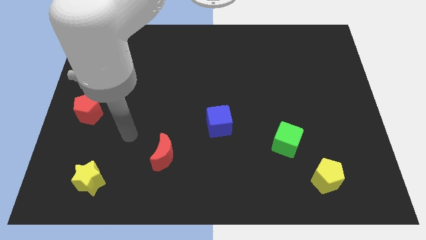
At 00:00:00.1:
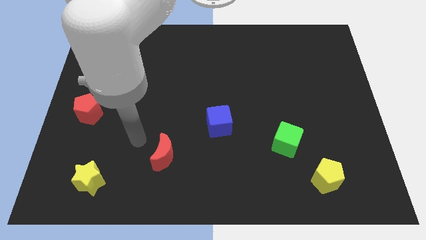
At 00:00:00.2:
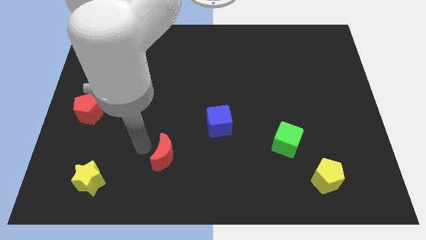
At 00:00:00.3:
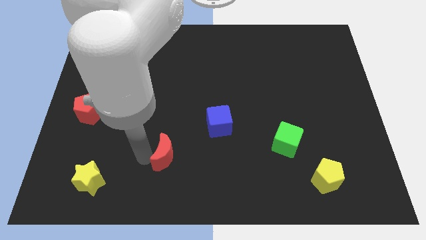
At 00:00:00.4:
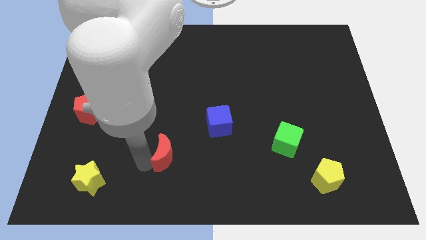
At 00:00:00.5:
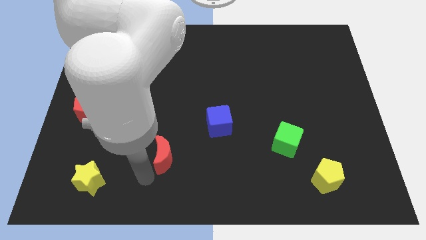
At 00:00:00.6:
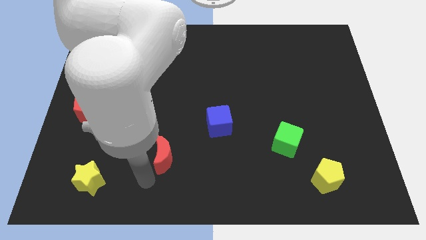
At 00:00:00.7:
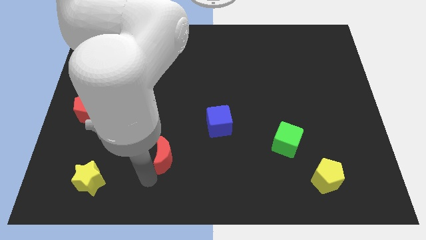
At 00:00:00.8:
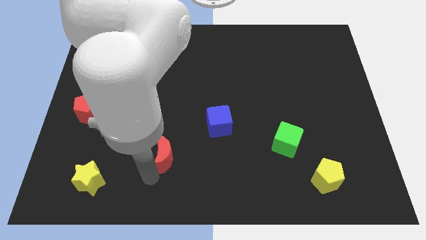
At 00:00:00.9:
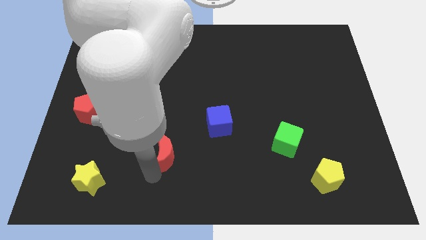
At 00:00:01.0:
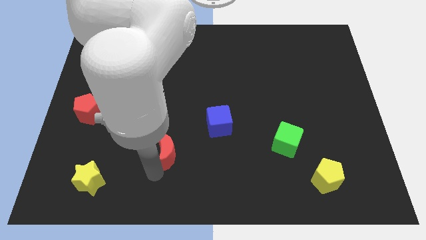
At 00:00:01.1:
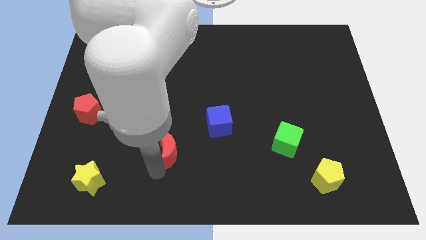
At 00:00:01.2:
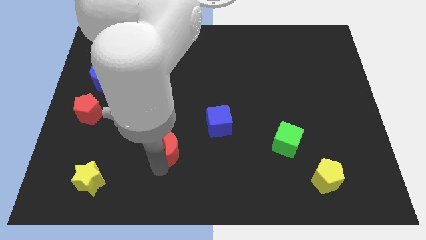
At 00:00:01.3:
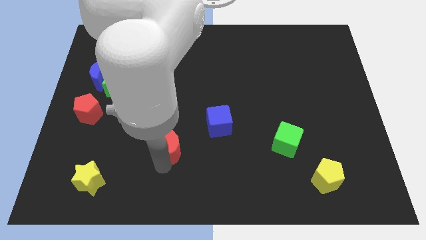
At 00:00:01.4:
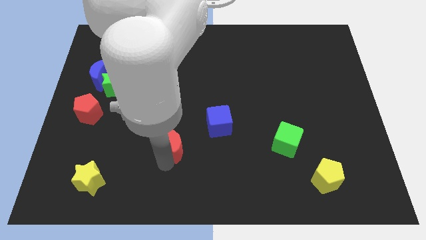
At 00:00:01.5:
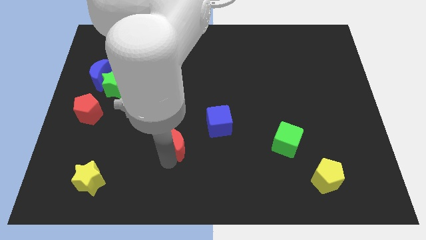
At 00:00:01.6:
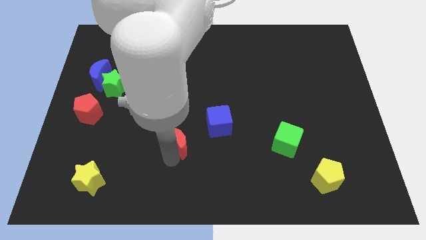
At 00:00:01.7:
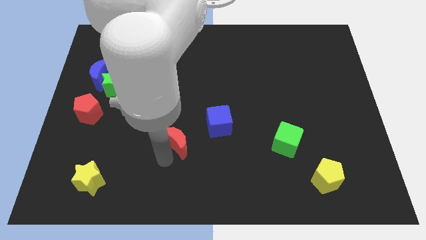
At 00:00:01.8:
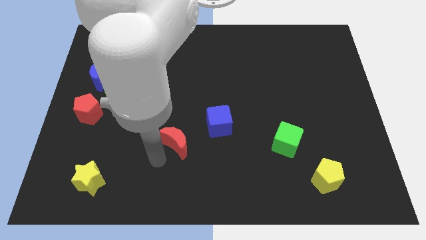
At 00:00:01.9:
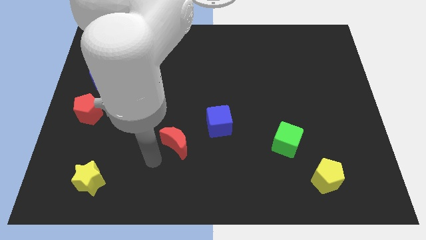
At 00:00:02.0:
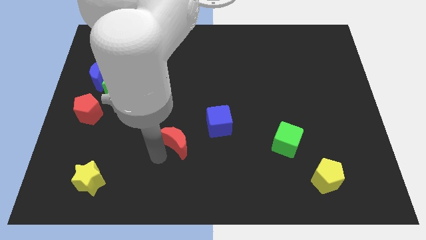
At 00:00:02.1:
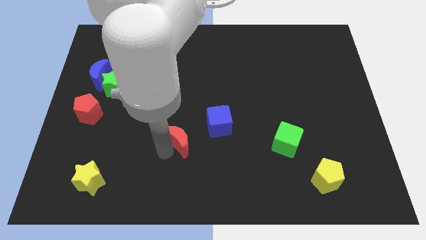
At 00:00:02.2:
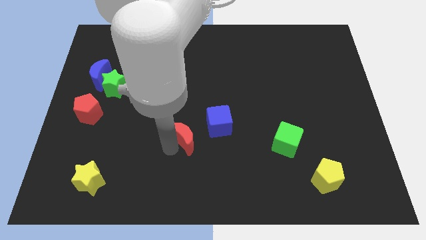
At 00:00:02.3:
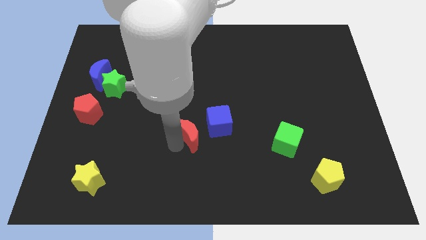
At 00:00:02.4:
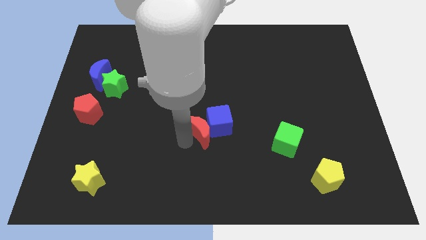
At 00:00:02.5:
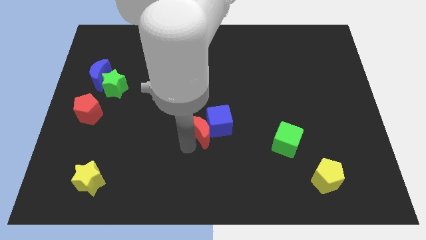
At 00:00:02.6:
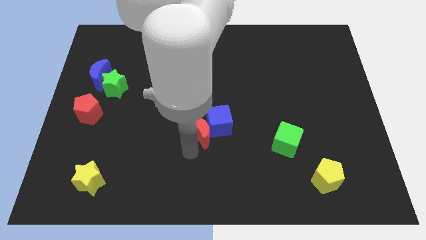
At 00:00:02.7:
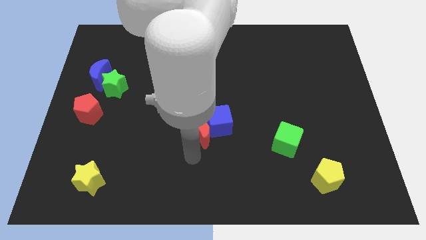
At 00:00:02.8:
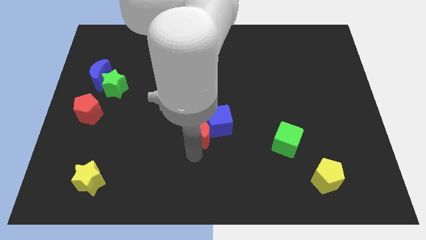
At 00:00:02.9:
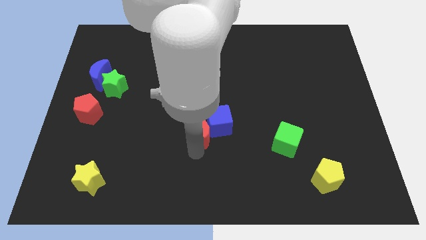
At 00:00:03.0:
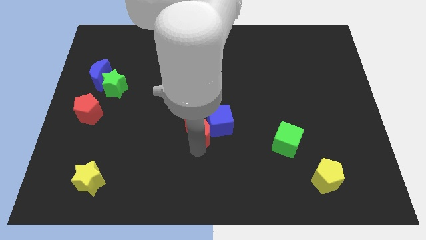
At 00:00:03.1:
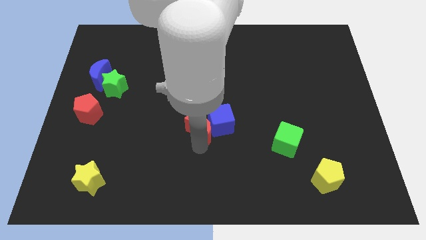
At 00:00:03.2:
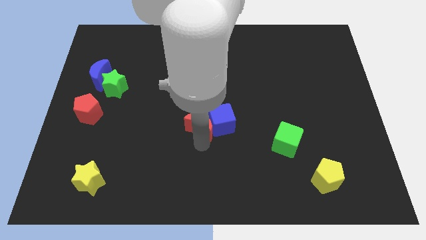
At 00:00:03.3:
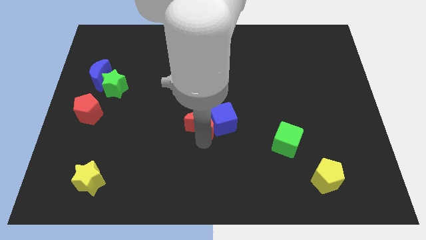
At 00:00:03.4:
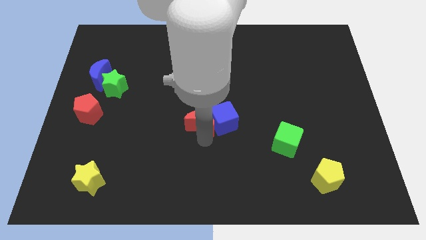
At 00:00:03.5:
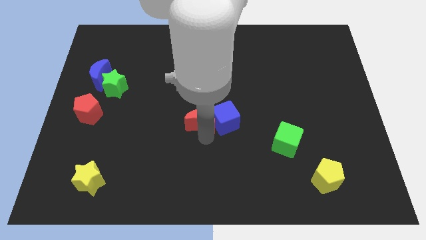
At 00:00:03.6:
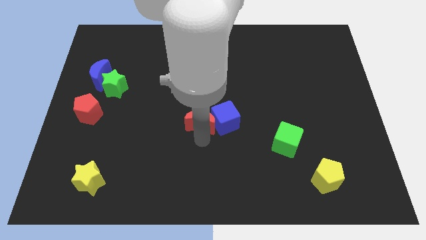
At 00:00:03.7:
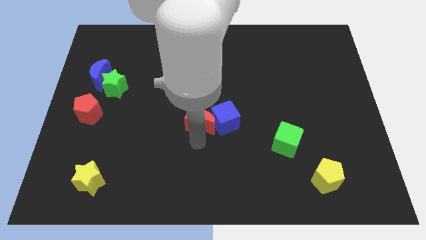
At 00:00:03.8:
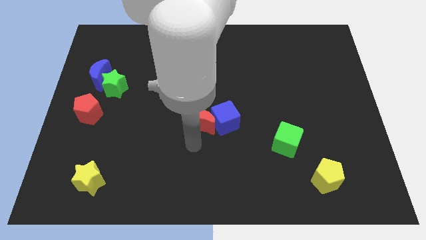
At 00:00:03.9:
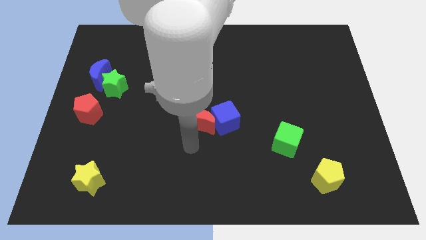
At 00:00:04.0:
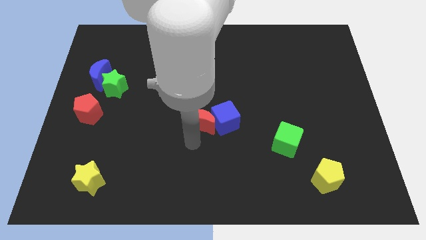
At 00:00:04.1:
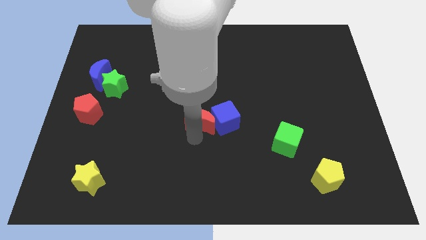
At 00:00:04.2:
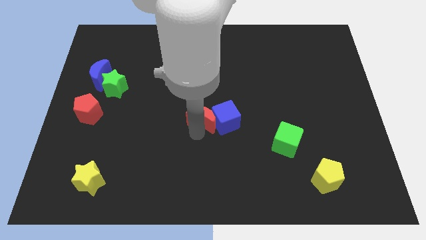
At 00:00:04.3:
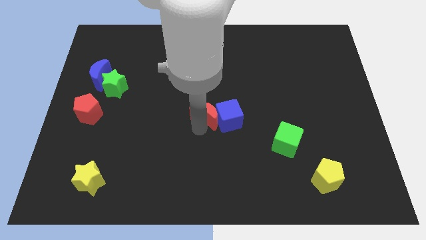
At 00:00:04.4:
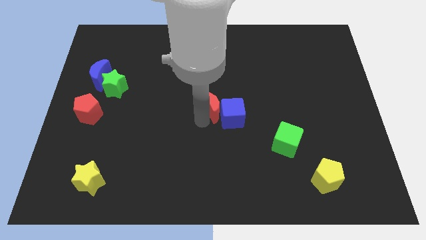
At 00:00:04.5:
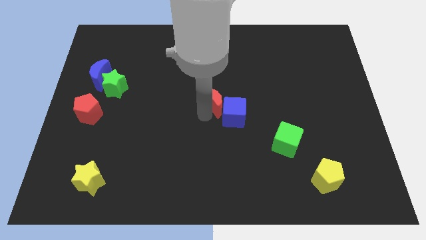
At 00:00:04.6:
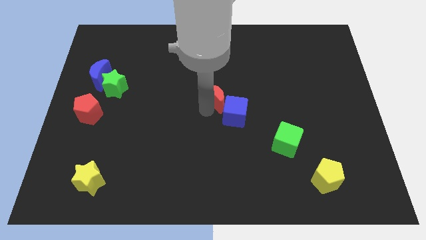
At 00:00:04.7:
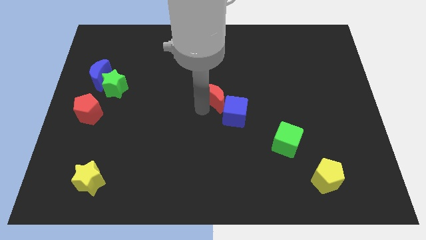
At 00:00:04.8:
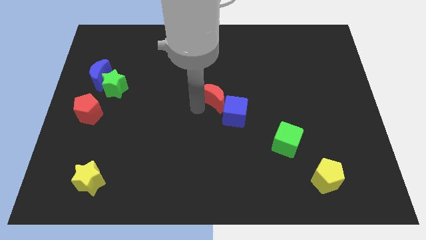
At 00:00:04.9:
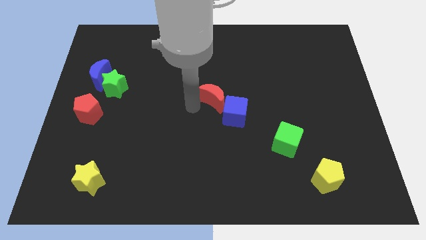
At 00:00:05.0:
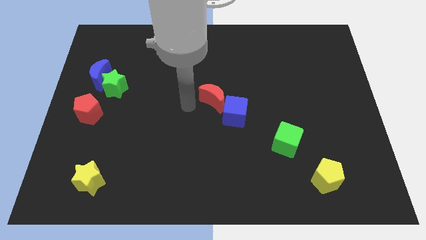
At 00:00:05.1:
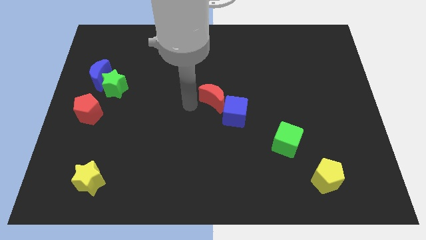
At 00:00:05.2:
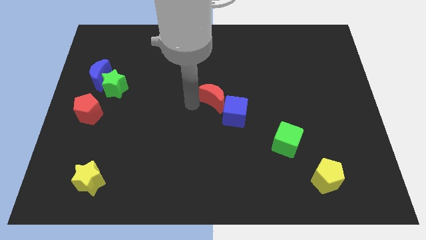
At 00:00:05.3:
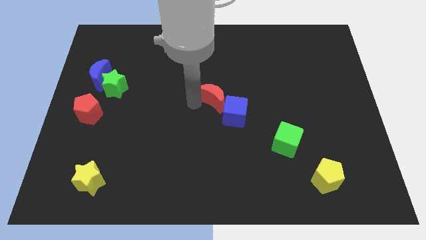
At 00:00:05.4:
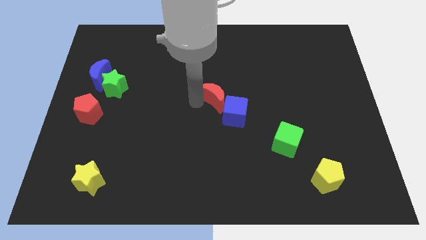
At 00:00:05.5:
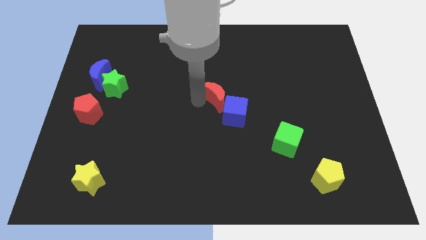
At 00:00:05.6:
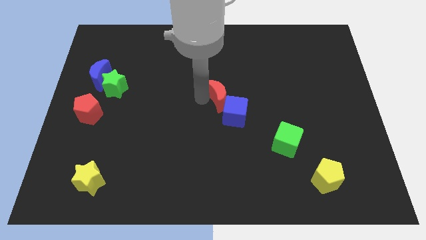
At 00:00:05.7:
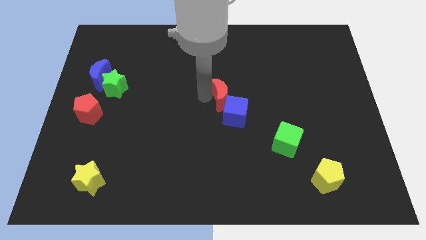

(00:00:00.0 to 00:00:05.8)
push the red moon upwards and to the right

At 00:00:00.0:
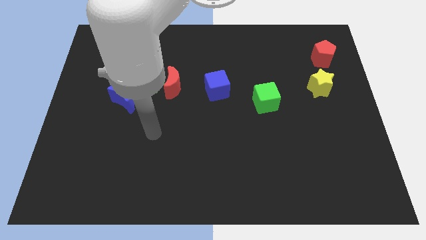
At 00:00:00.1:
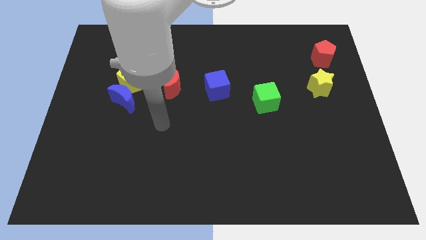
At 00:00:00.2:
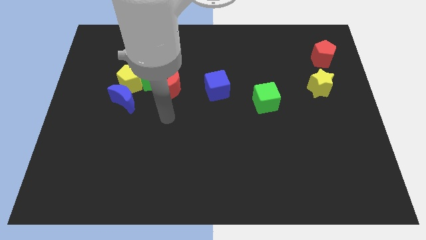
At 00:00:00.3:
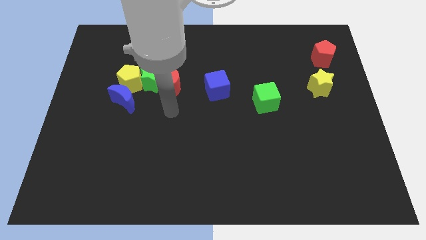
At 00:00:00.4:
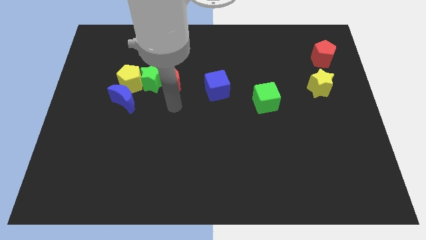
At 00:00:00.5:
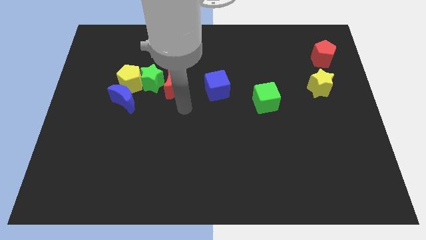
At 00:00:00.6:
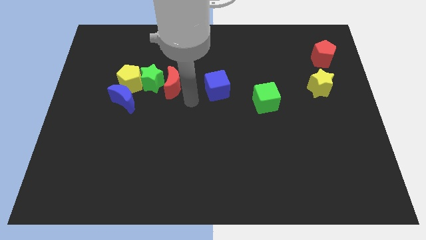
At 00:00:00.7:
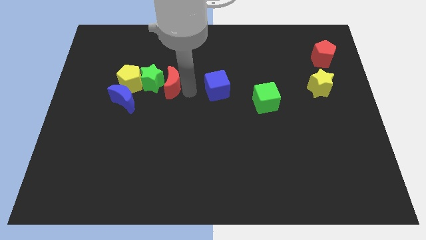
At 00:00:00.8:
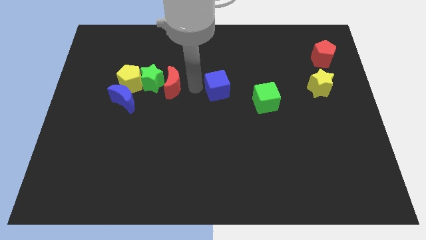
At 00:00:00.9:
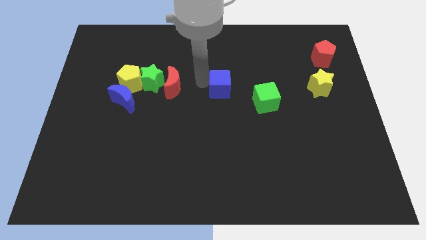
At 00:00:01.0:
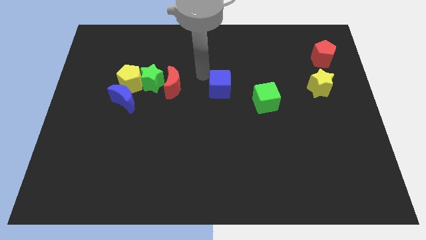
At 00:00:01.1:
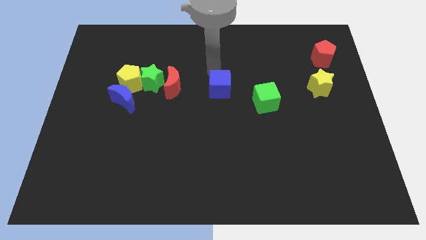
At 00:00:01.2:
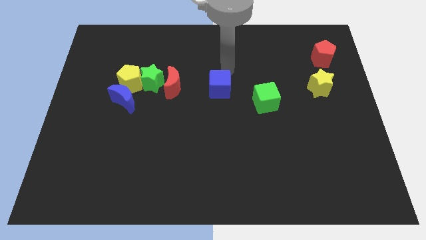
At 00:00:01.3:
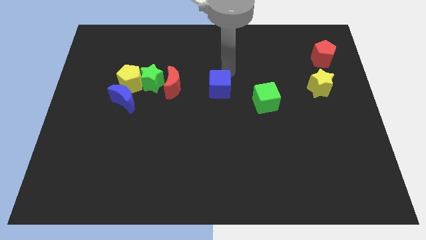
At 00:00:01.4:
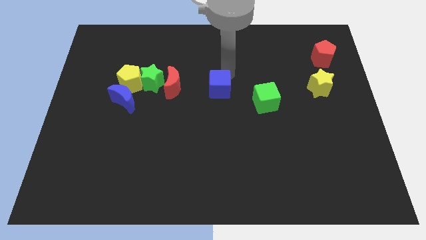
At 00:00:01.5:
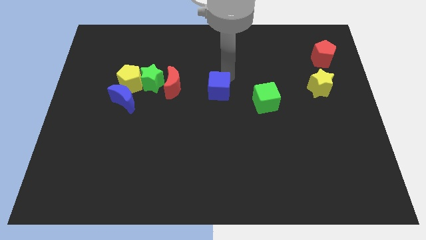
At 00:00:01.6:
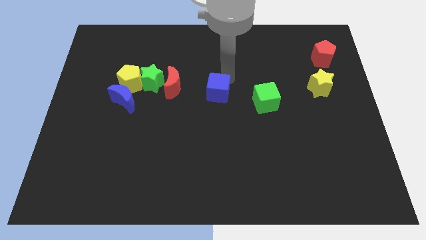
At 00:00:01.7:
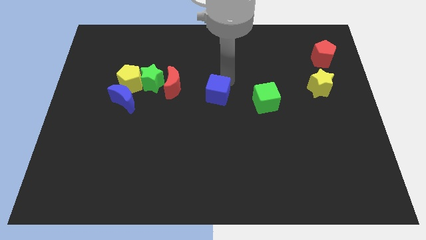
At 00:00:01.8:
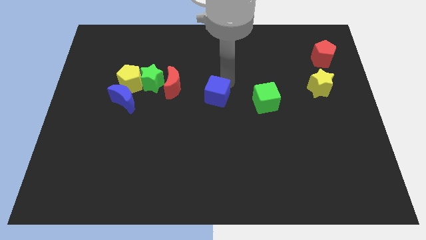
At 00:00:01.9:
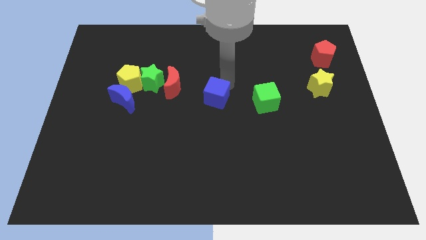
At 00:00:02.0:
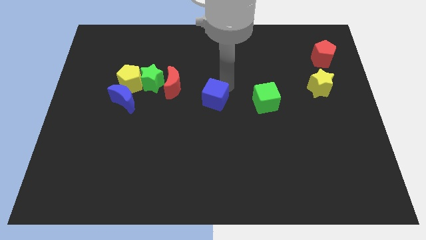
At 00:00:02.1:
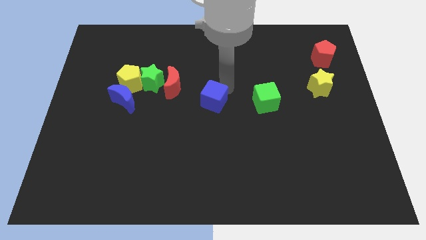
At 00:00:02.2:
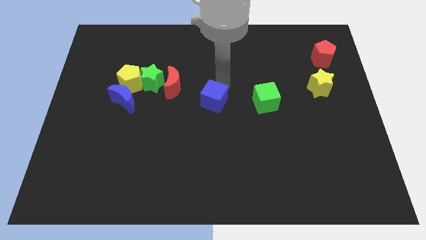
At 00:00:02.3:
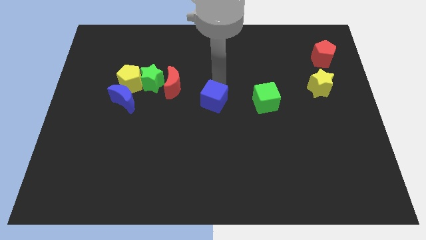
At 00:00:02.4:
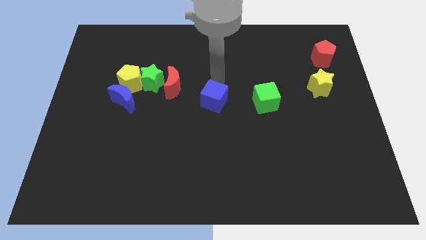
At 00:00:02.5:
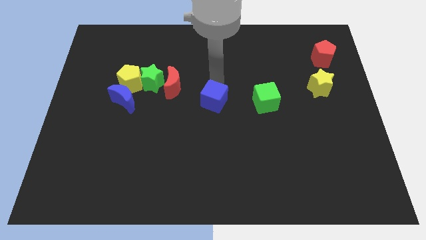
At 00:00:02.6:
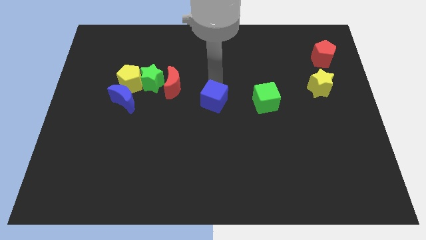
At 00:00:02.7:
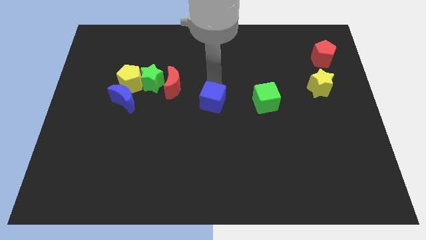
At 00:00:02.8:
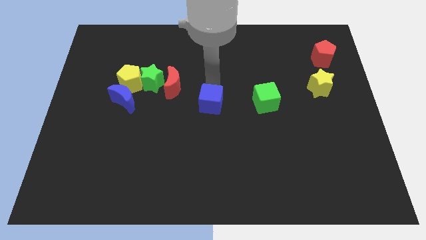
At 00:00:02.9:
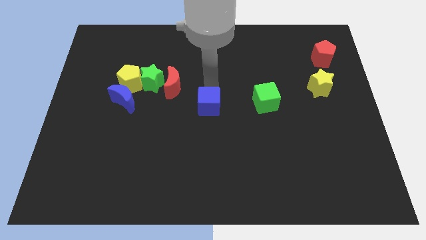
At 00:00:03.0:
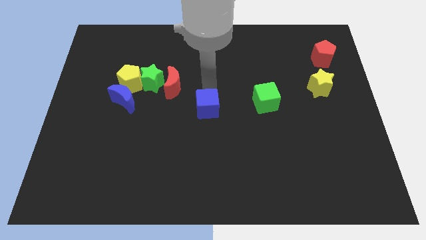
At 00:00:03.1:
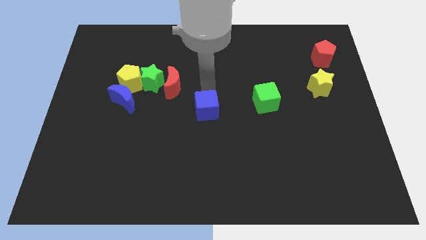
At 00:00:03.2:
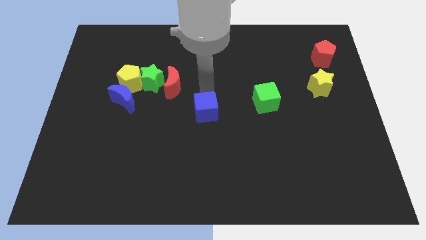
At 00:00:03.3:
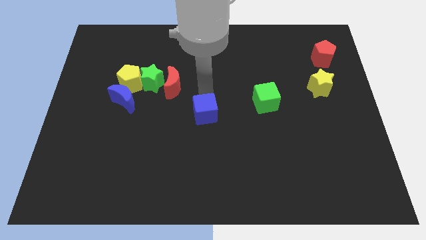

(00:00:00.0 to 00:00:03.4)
slide the blue cube a bit downwards
